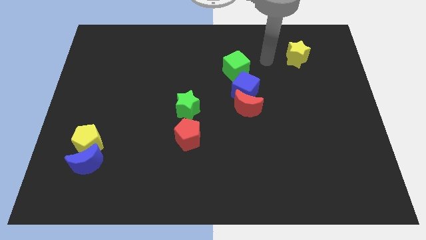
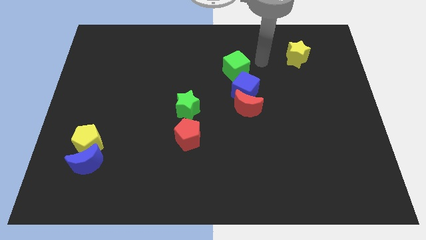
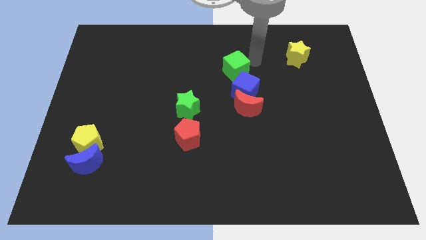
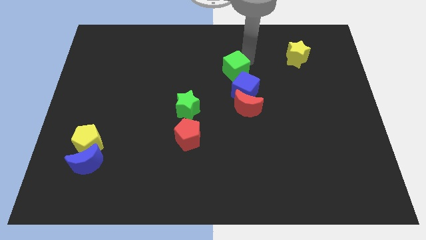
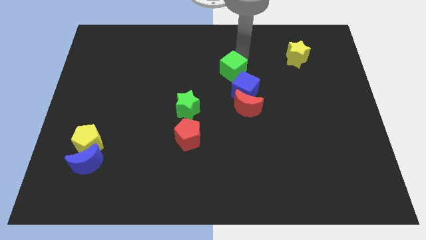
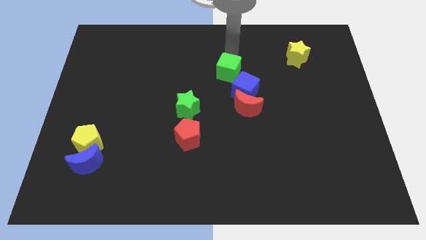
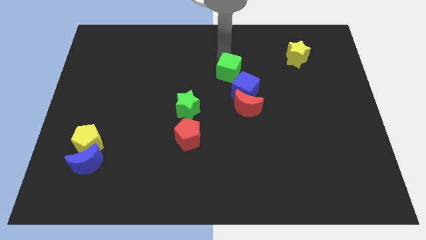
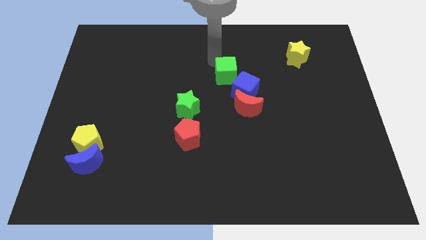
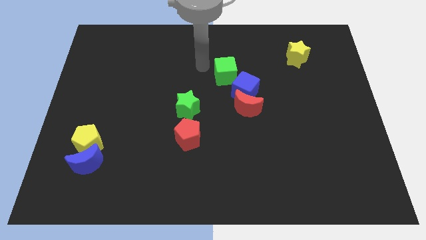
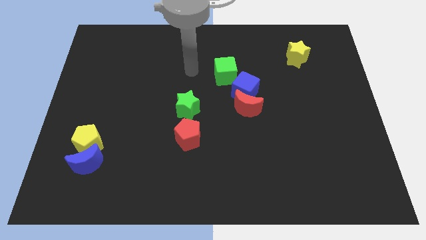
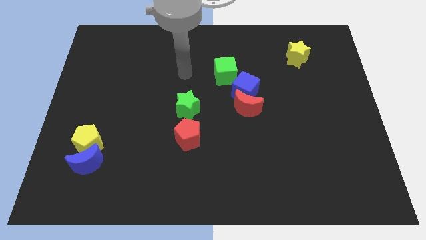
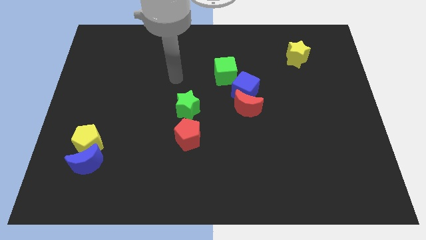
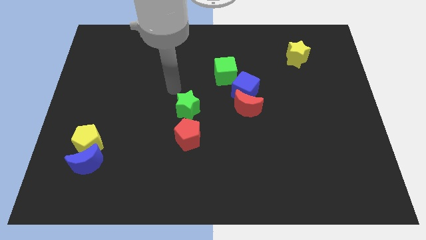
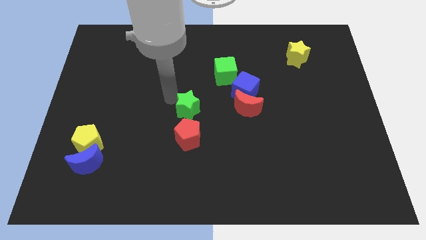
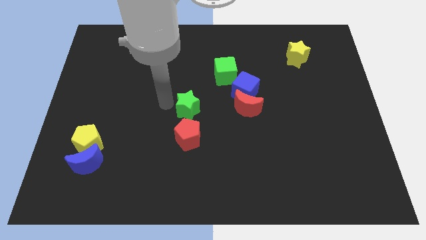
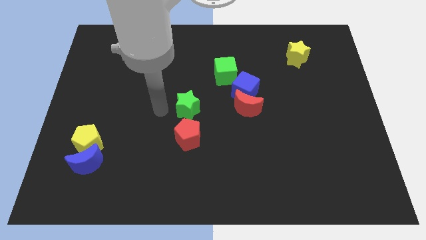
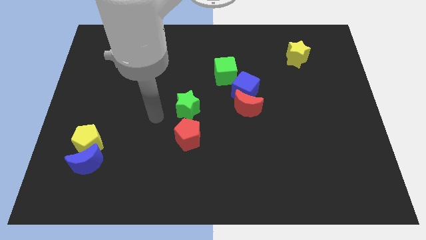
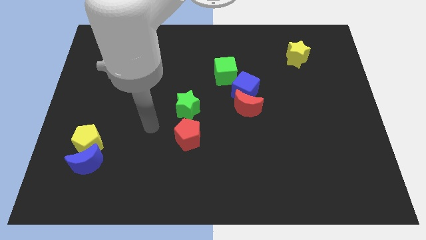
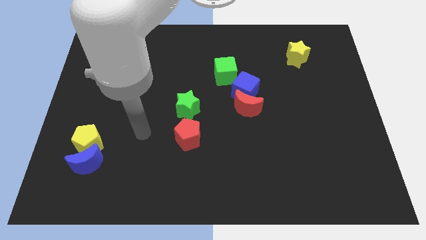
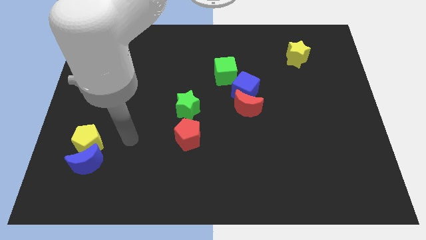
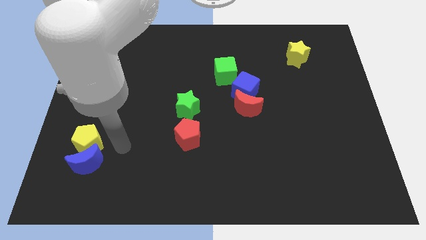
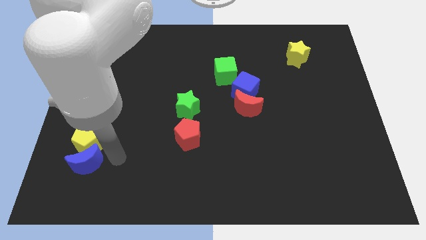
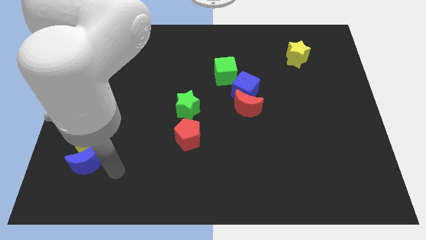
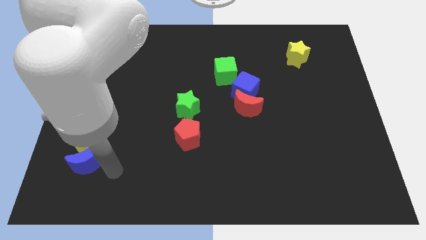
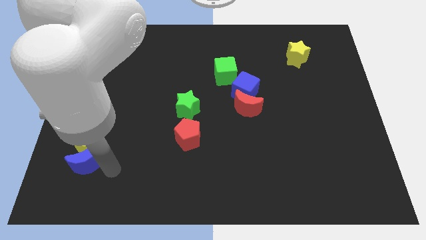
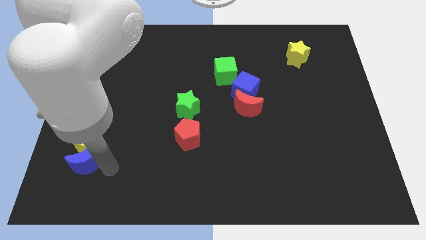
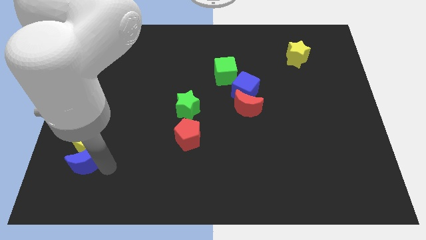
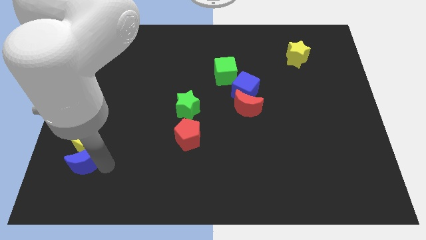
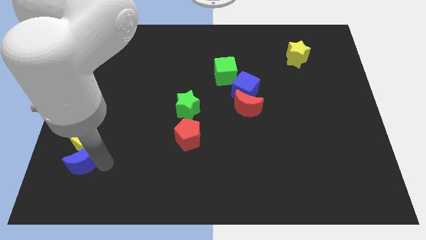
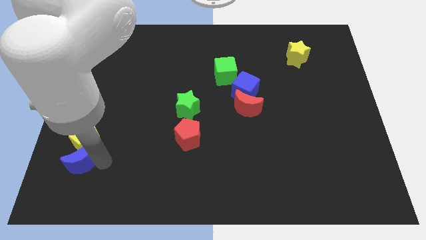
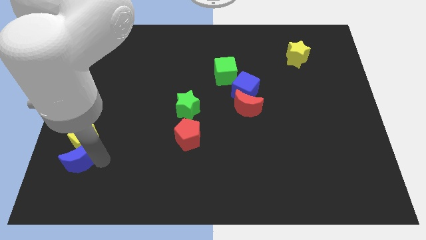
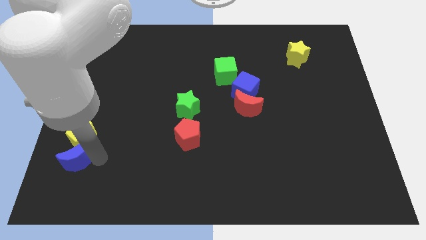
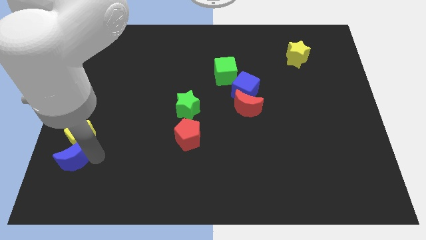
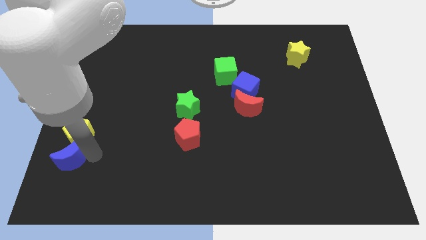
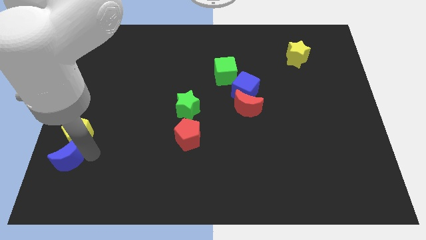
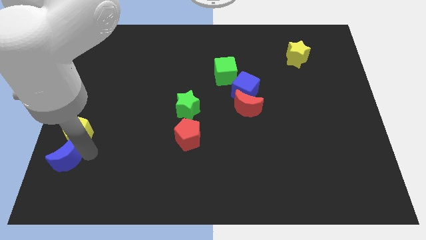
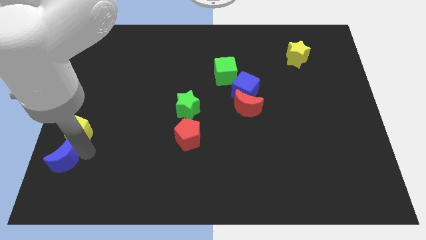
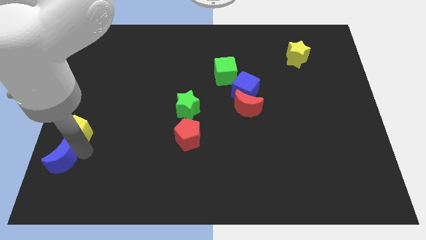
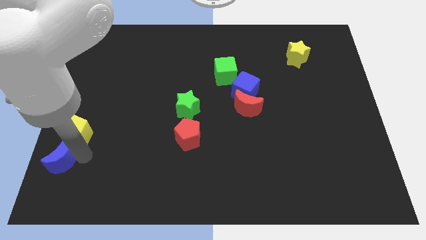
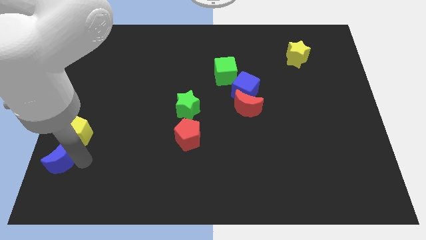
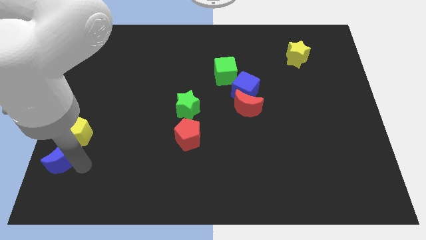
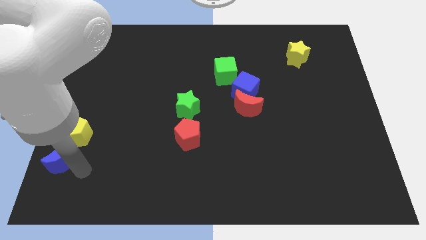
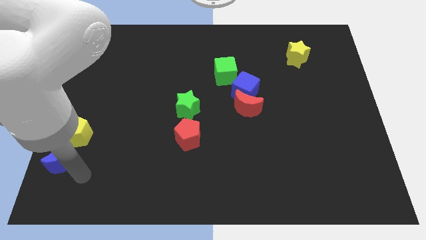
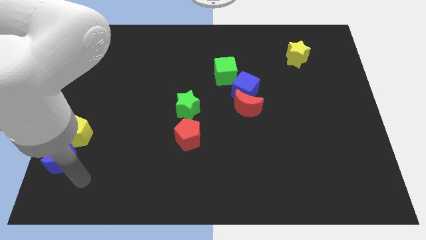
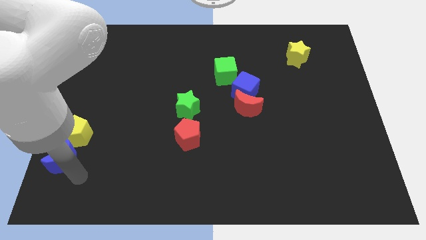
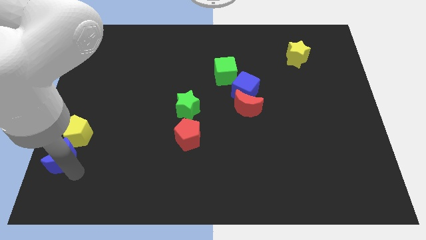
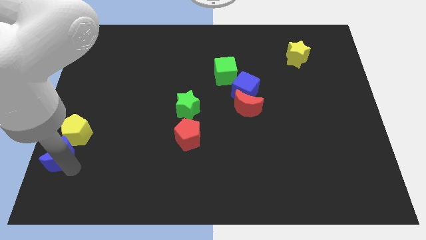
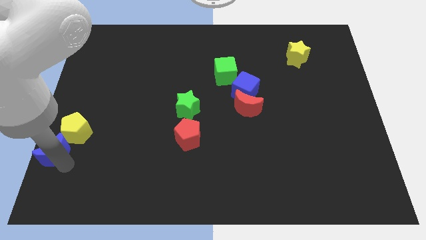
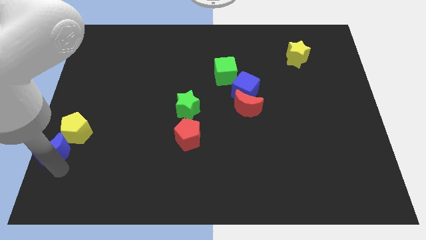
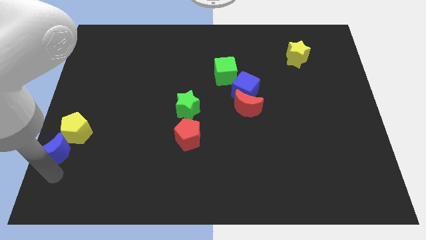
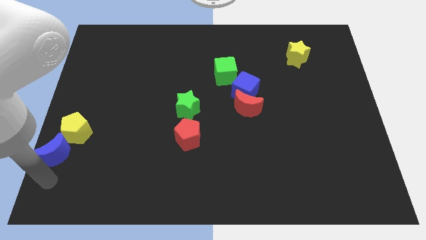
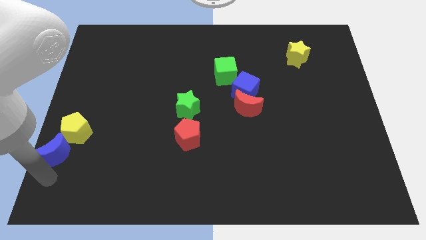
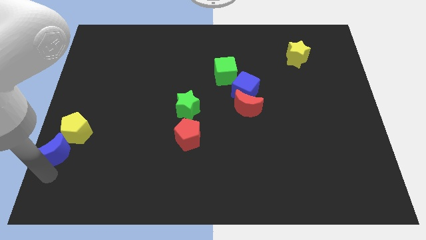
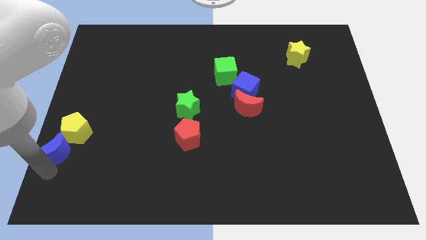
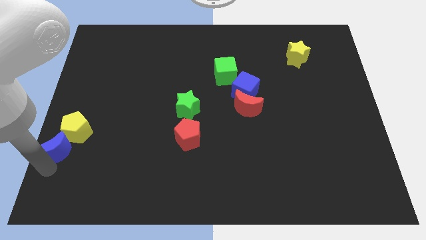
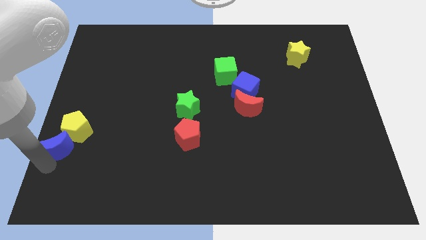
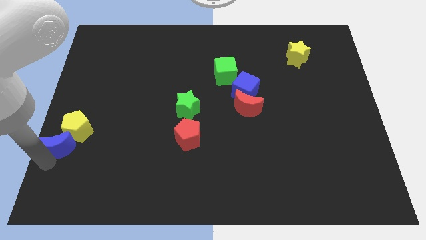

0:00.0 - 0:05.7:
slide the blue moon to the left side
